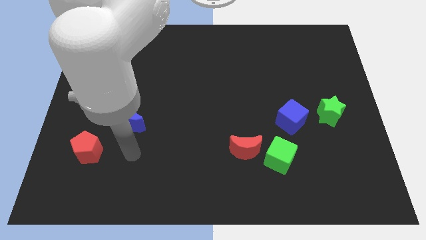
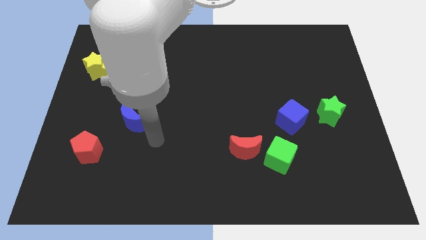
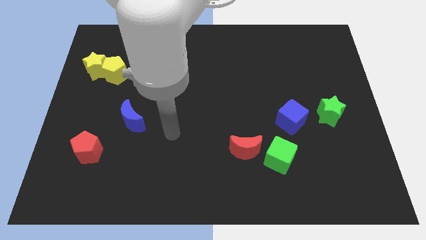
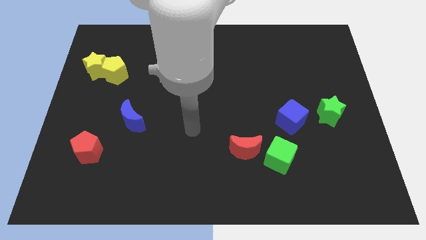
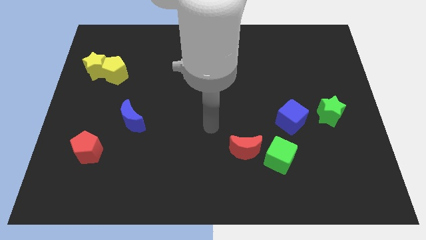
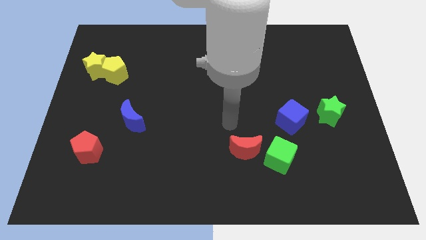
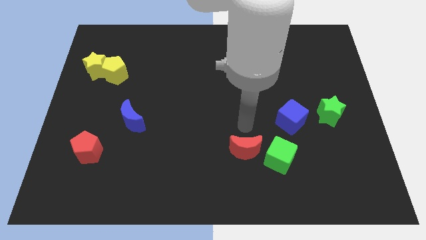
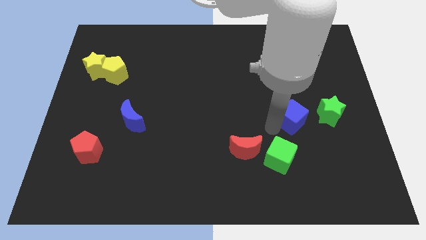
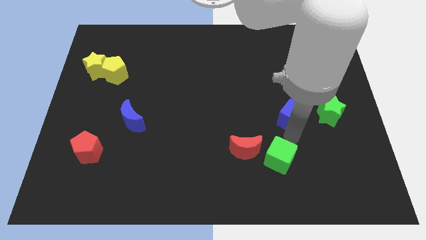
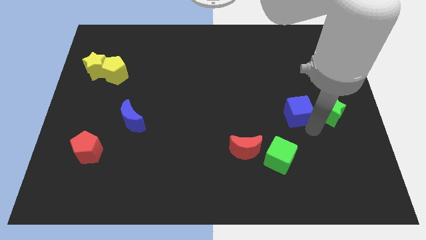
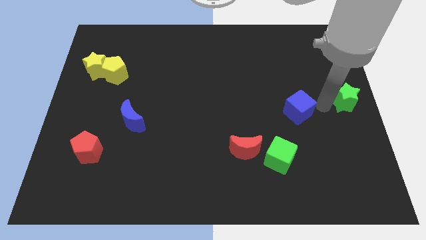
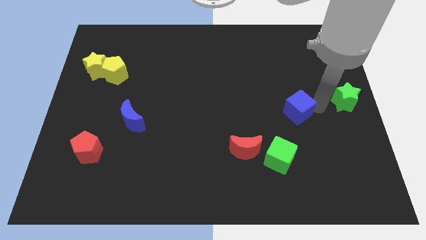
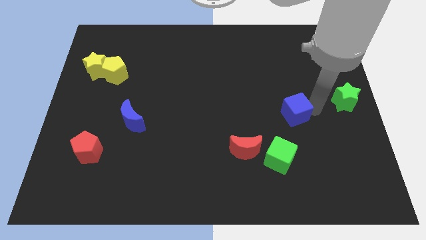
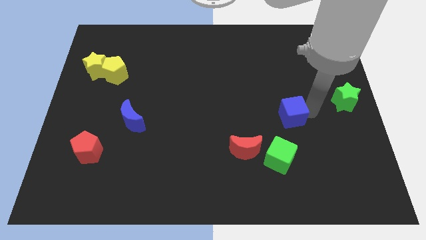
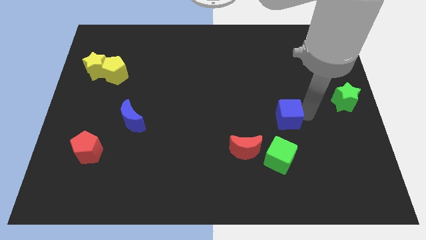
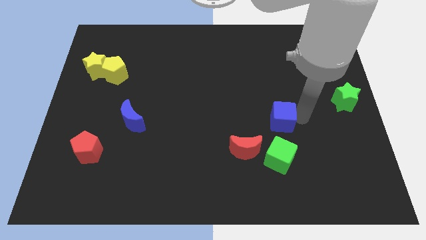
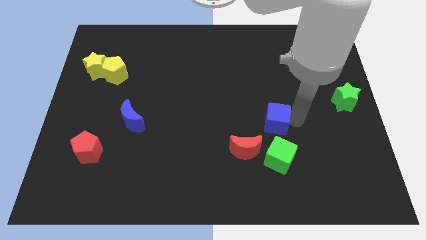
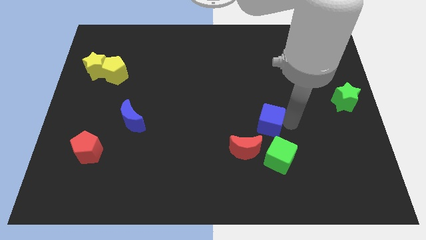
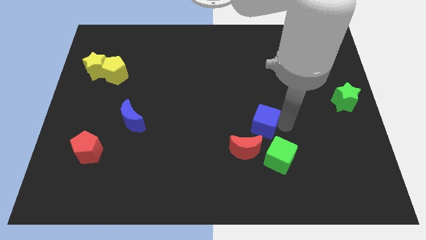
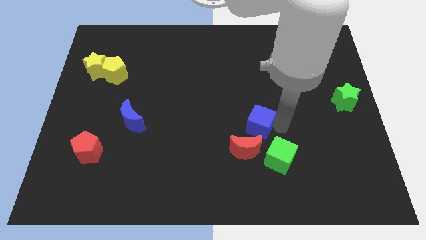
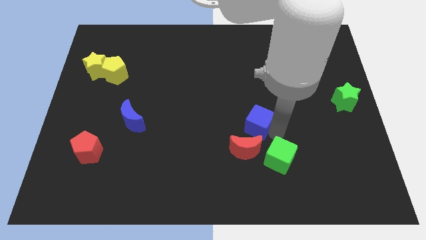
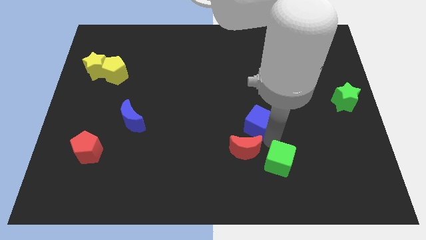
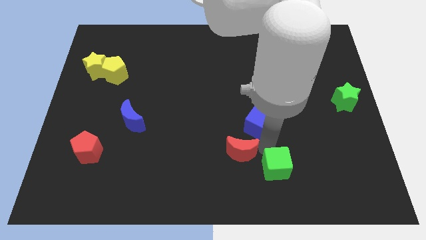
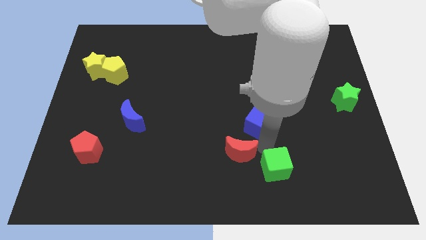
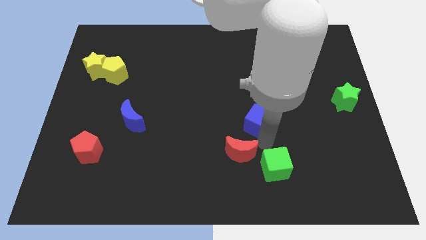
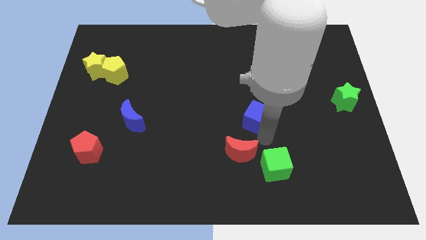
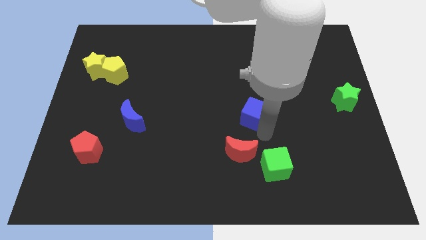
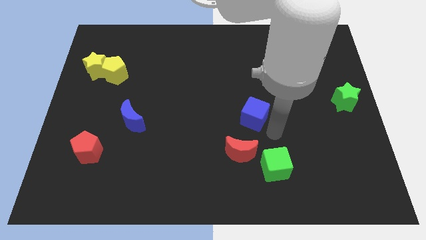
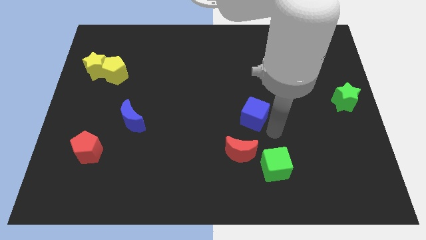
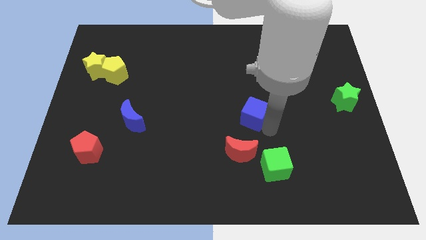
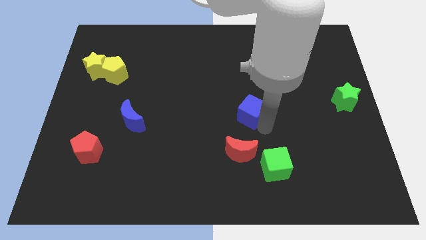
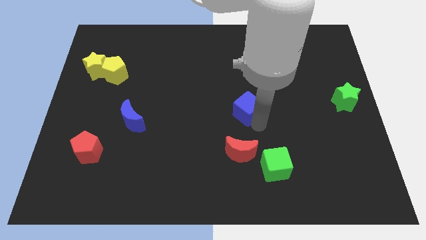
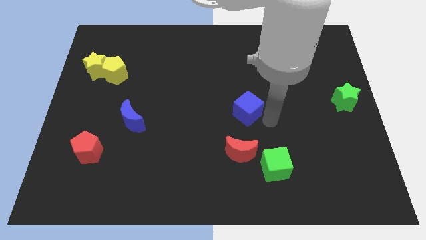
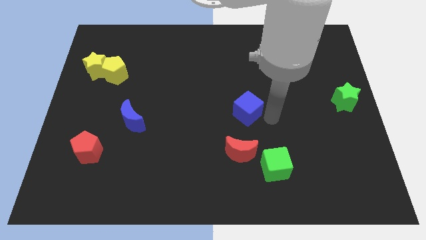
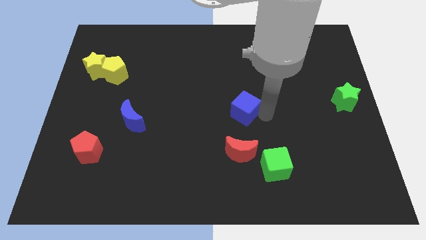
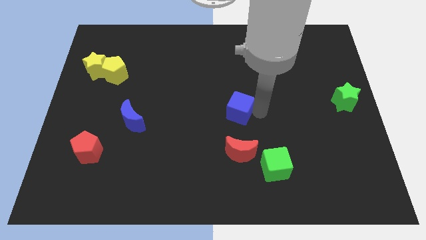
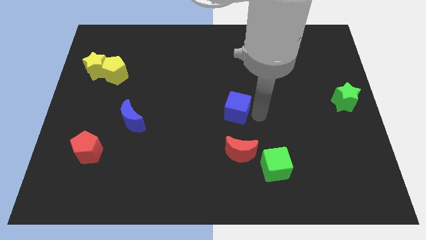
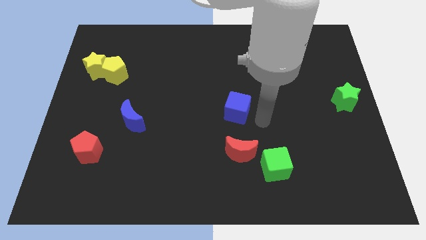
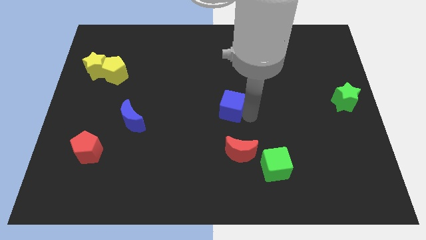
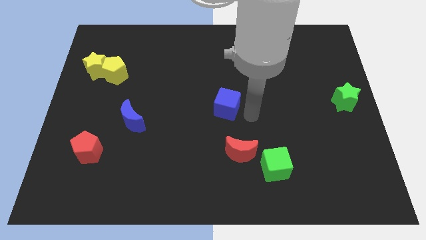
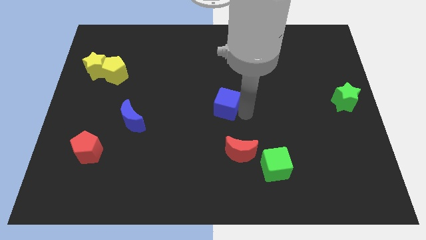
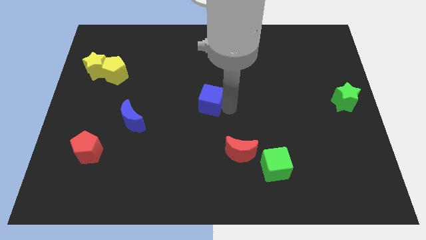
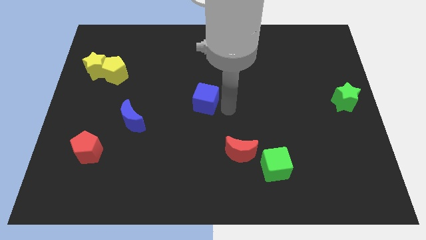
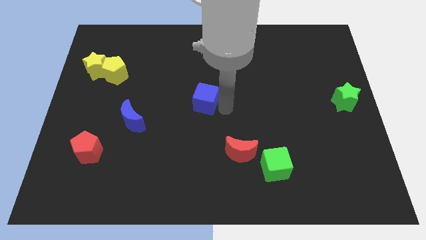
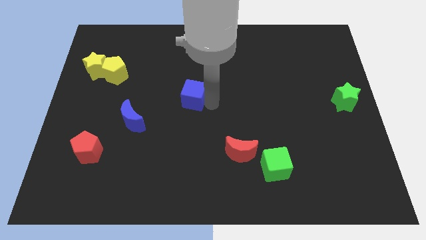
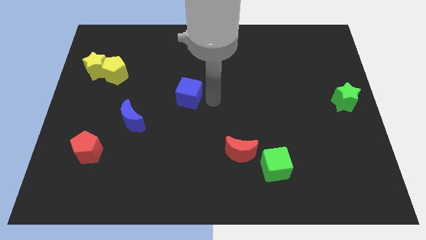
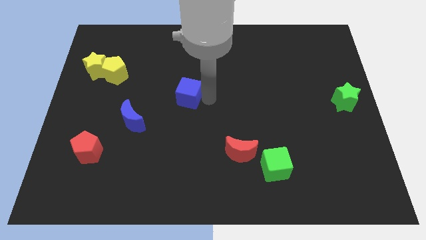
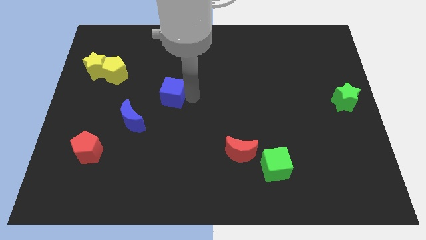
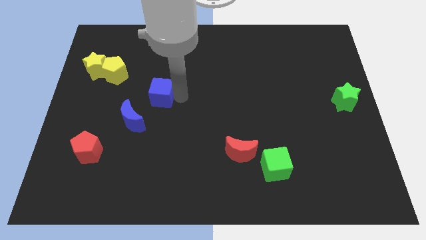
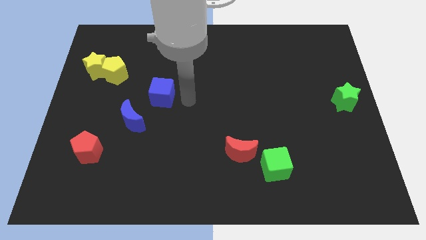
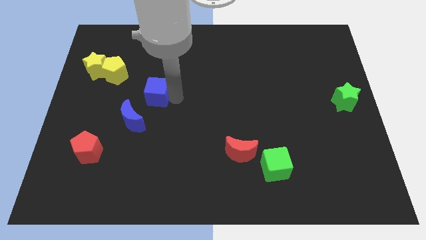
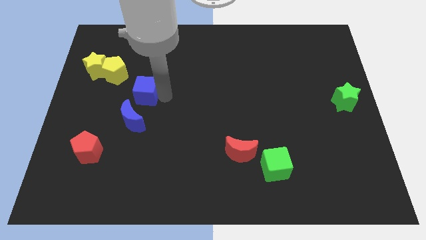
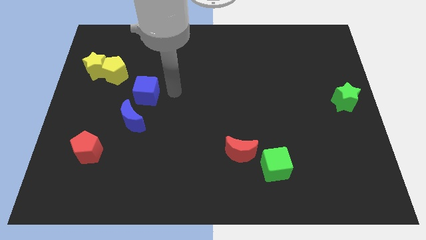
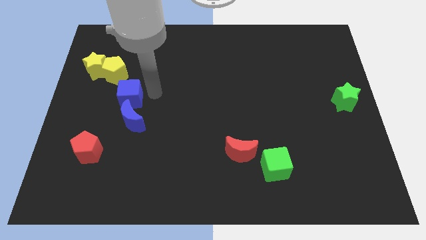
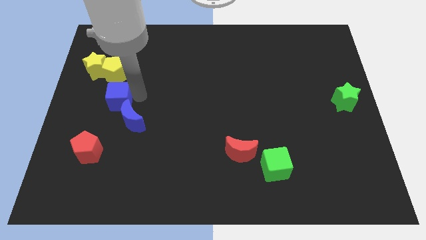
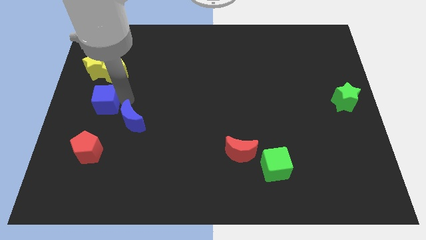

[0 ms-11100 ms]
move the blue cube to the left side
